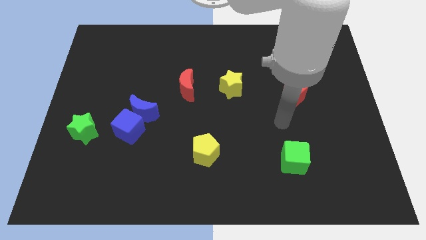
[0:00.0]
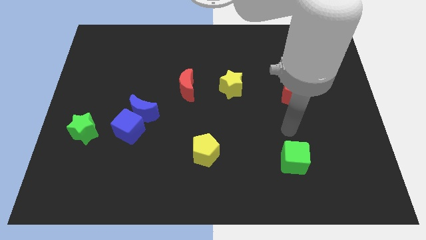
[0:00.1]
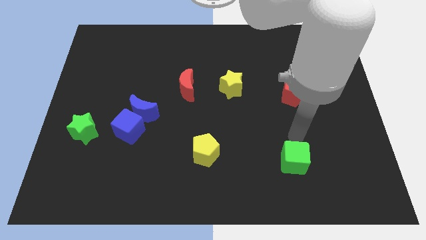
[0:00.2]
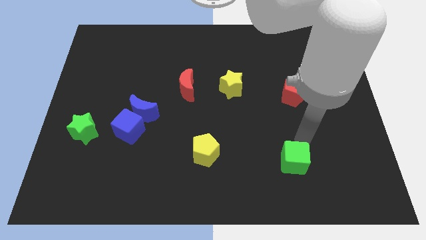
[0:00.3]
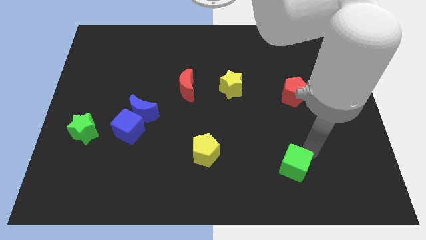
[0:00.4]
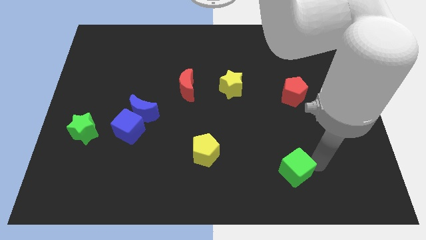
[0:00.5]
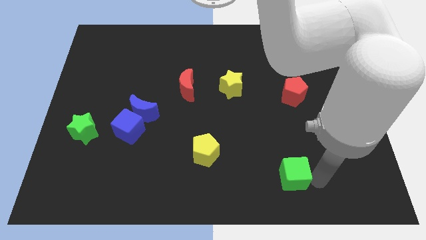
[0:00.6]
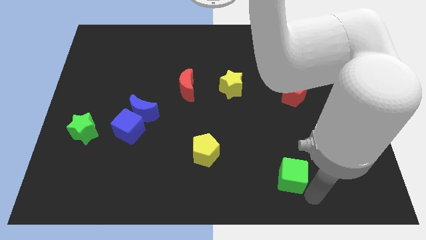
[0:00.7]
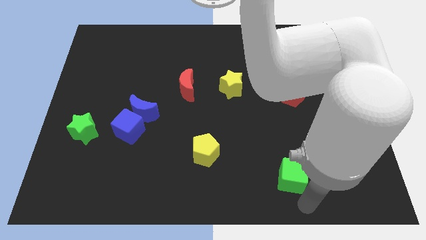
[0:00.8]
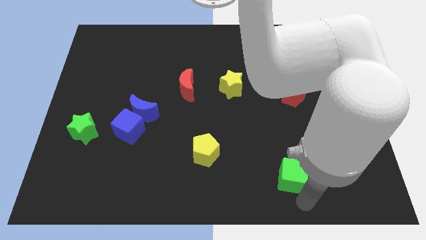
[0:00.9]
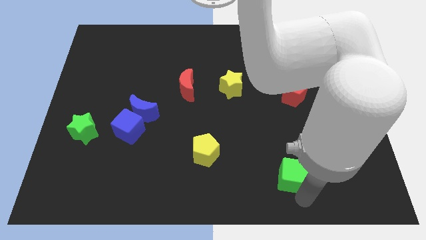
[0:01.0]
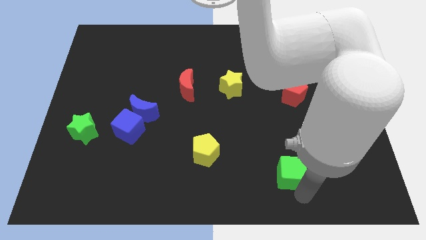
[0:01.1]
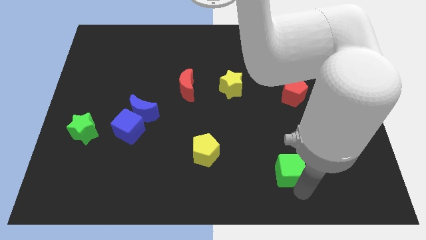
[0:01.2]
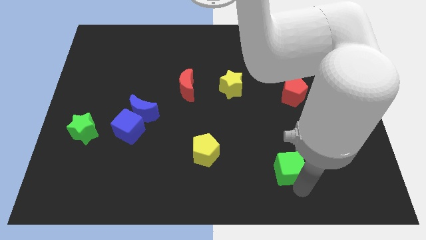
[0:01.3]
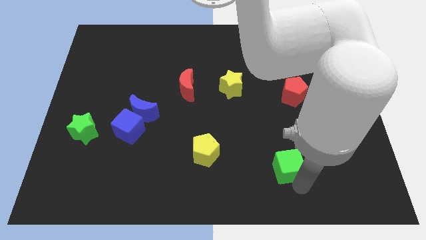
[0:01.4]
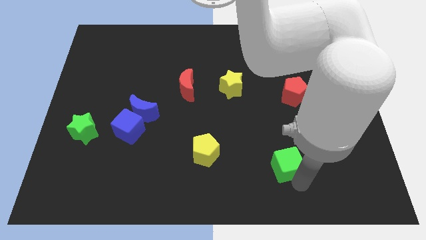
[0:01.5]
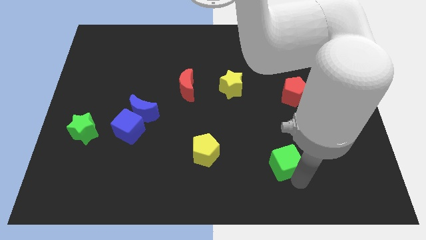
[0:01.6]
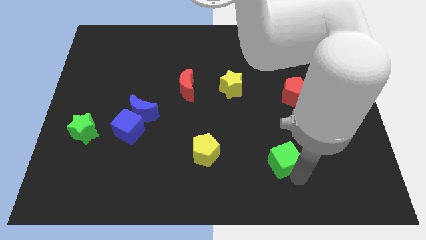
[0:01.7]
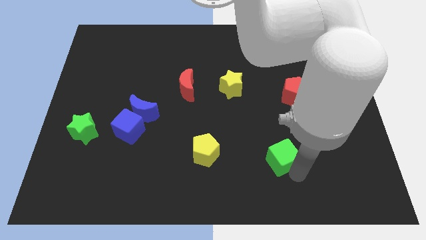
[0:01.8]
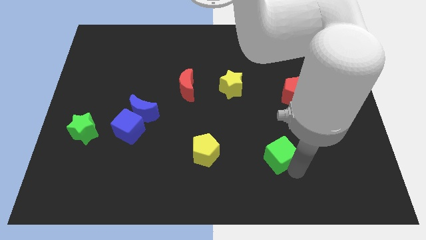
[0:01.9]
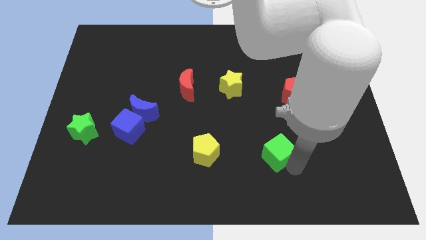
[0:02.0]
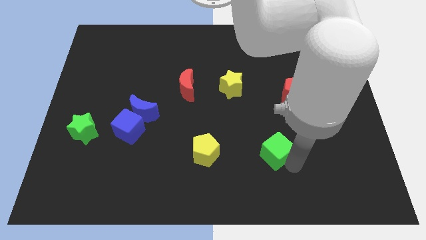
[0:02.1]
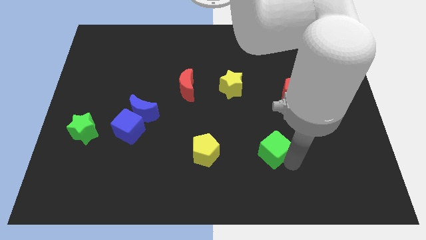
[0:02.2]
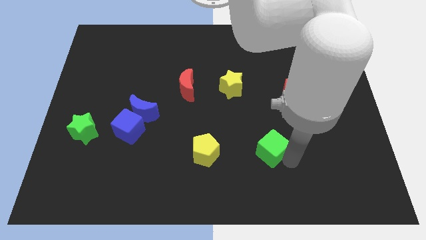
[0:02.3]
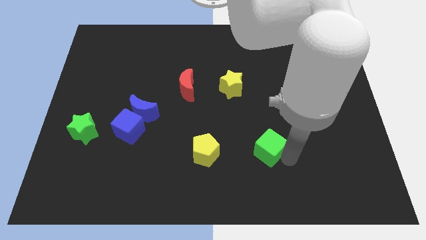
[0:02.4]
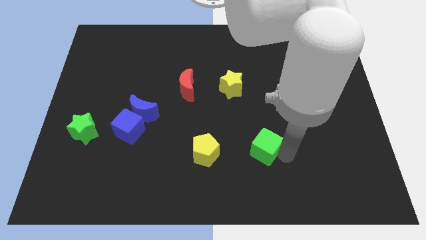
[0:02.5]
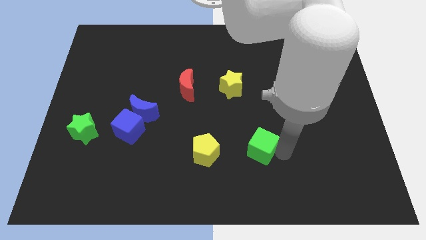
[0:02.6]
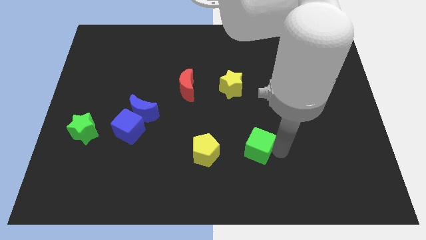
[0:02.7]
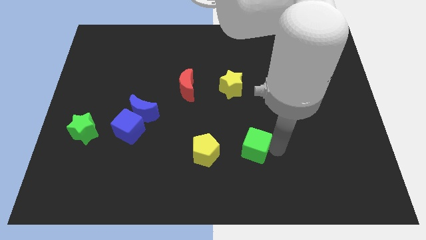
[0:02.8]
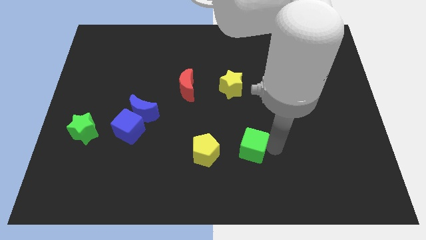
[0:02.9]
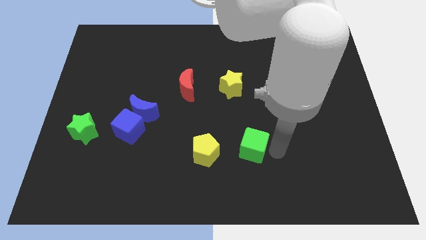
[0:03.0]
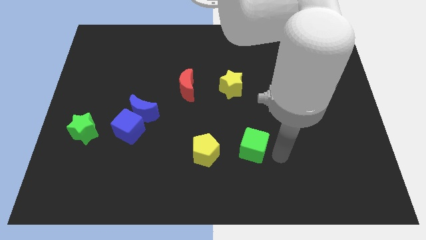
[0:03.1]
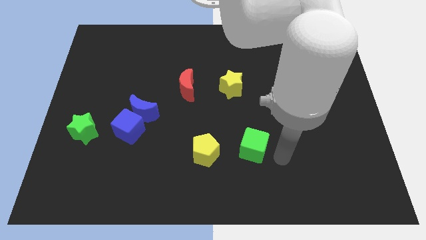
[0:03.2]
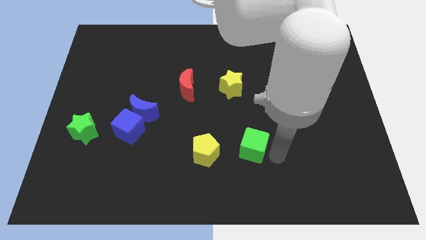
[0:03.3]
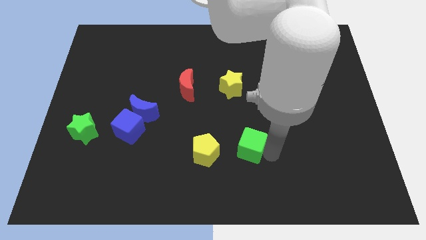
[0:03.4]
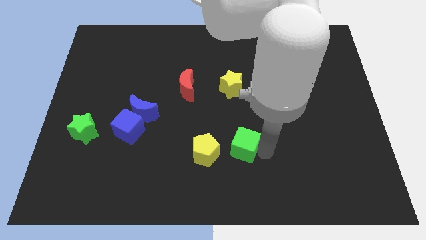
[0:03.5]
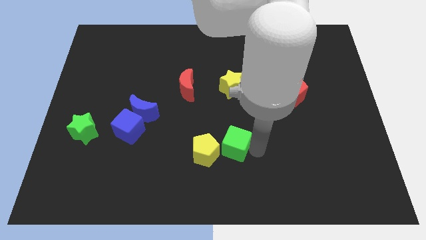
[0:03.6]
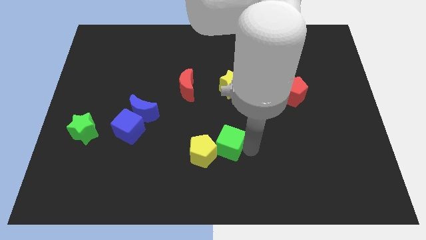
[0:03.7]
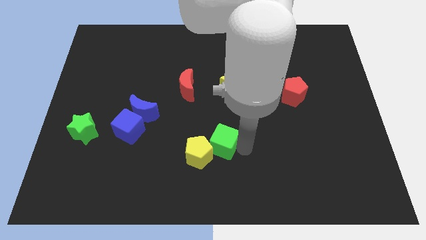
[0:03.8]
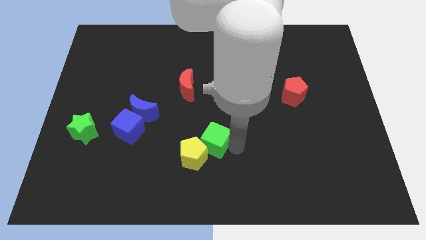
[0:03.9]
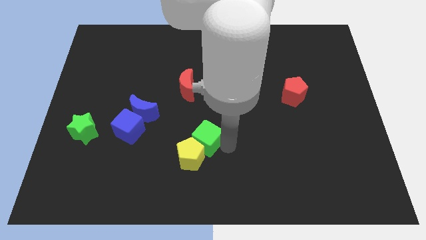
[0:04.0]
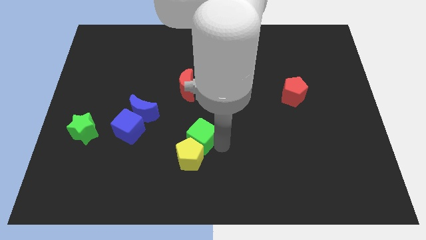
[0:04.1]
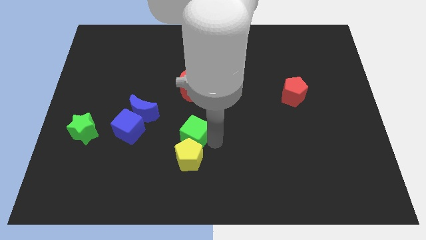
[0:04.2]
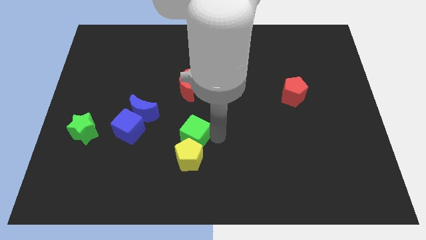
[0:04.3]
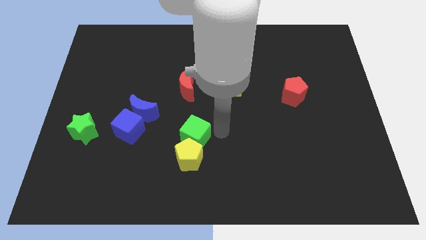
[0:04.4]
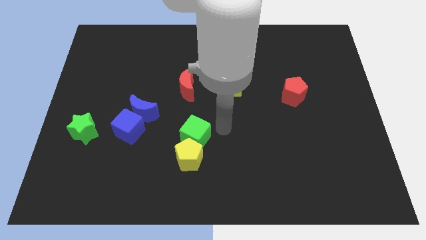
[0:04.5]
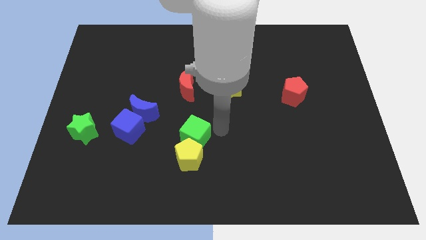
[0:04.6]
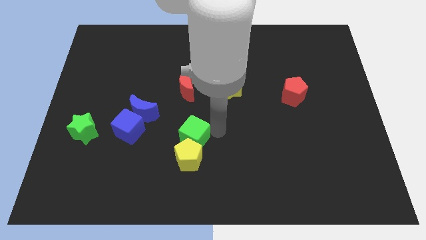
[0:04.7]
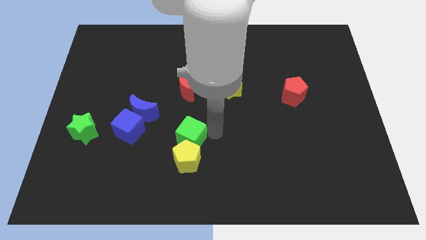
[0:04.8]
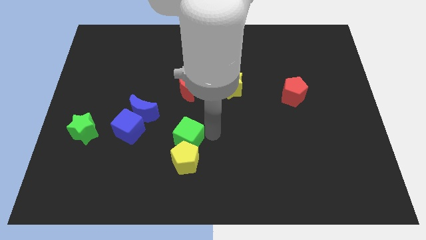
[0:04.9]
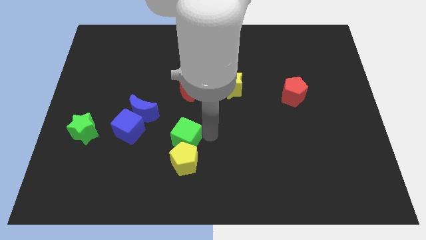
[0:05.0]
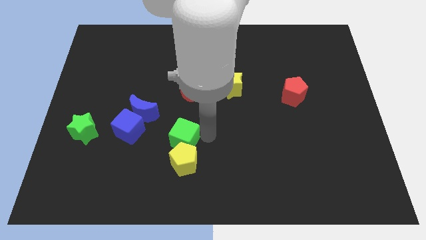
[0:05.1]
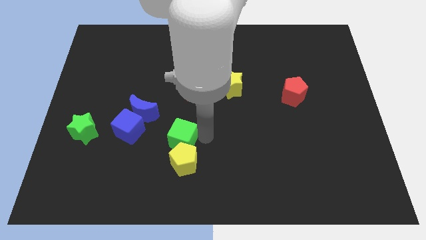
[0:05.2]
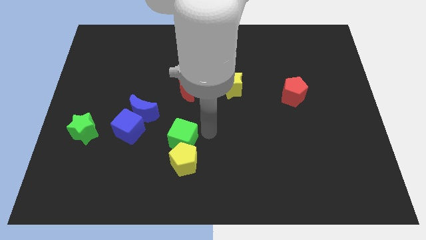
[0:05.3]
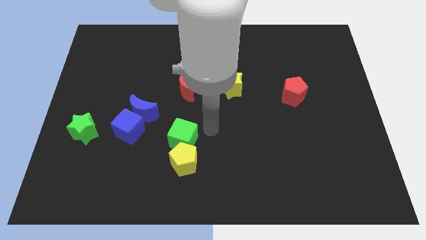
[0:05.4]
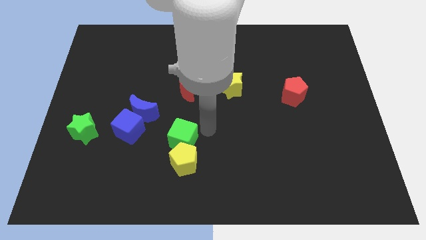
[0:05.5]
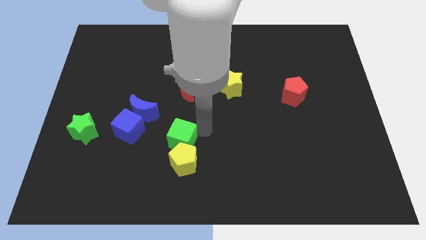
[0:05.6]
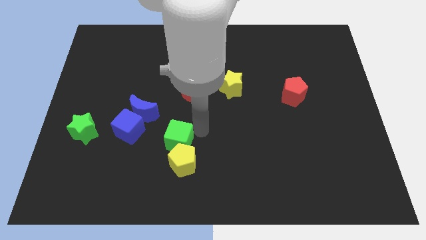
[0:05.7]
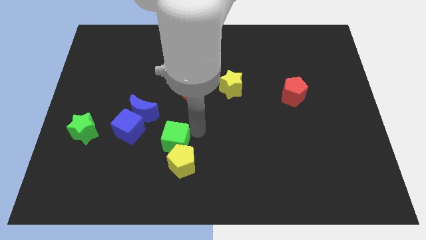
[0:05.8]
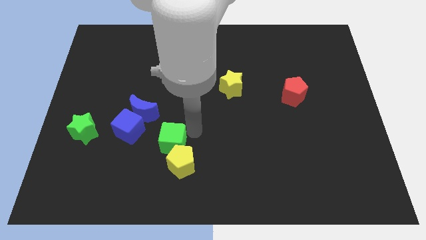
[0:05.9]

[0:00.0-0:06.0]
move the green cube diagonally down and to the right of the blue cube

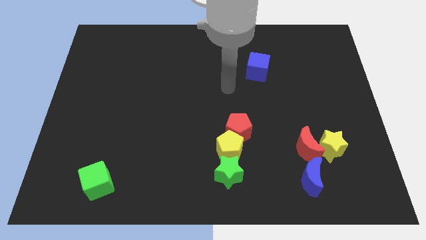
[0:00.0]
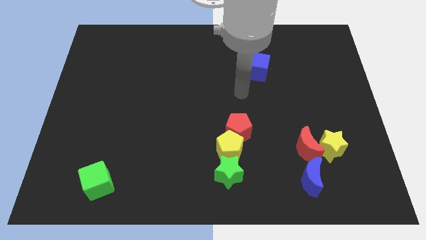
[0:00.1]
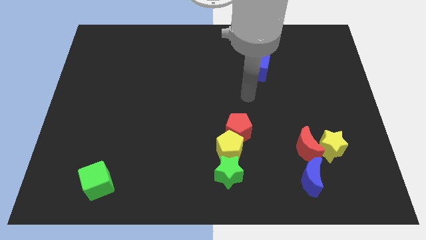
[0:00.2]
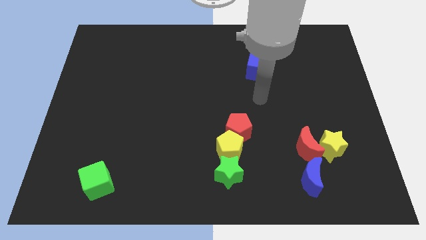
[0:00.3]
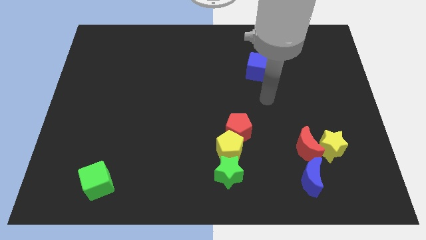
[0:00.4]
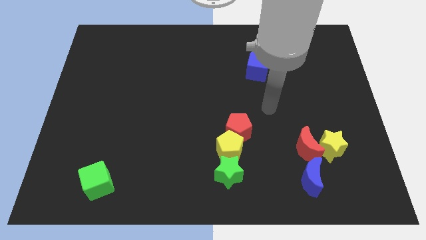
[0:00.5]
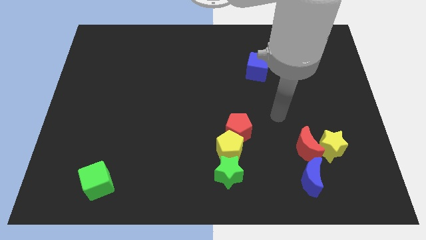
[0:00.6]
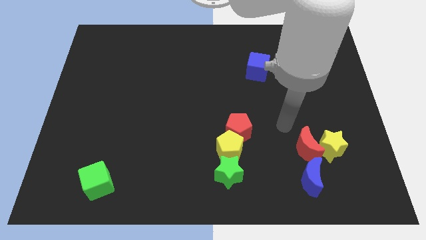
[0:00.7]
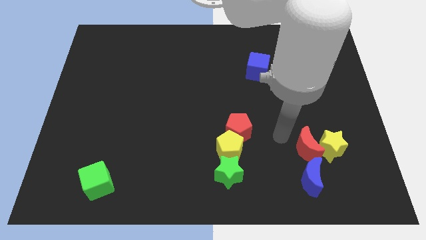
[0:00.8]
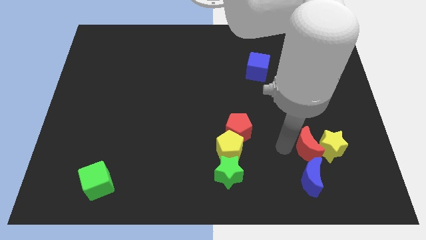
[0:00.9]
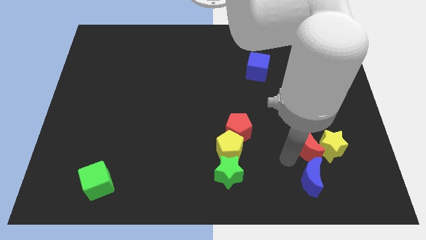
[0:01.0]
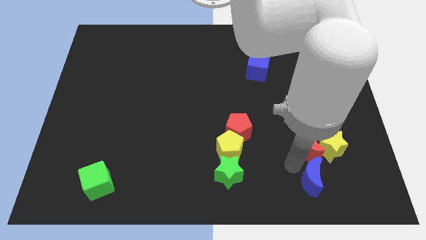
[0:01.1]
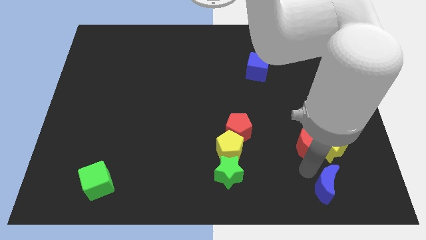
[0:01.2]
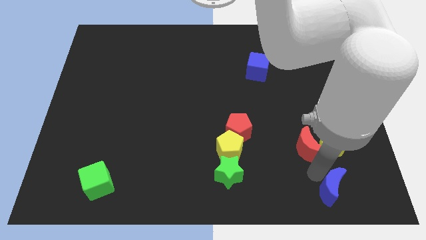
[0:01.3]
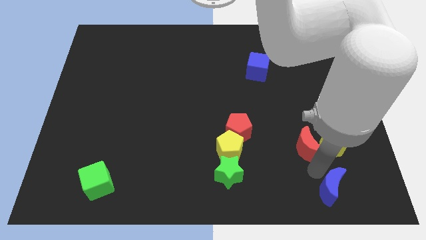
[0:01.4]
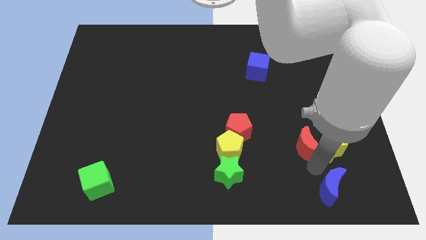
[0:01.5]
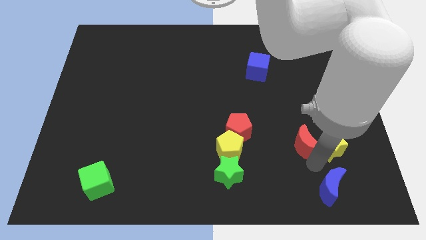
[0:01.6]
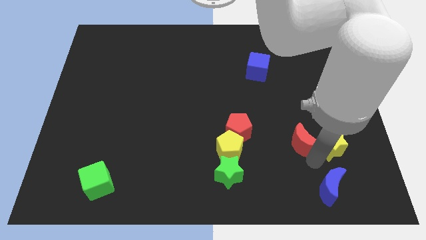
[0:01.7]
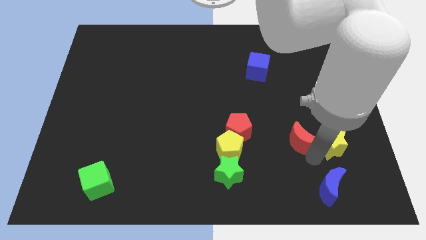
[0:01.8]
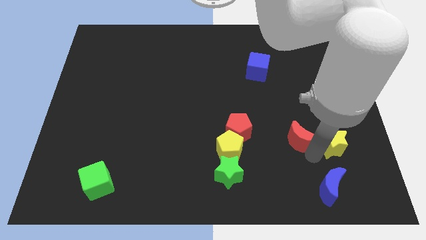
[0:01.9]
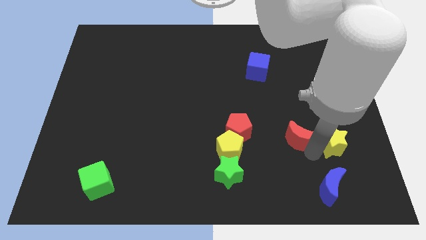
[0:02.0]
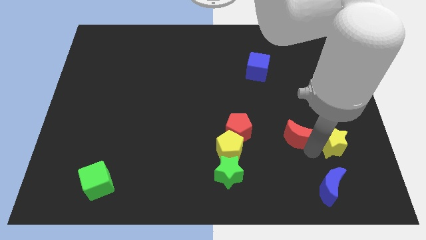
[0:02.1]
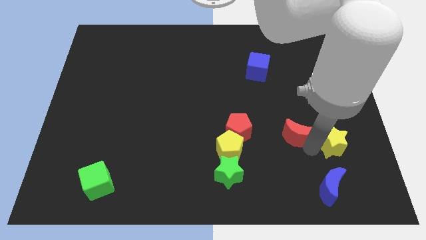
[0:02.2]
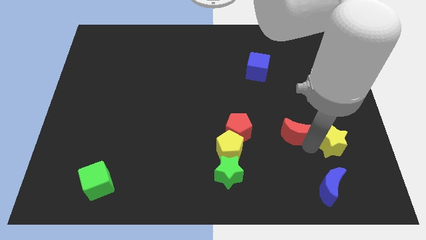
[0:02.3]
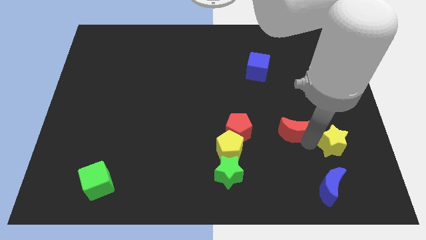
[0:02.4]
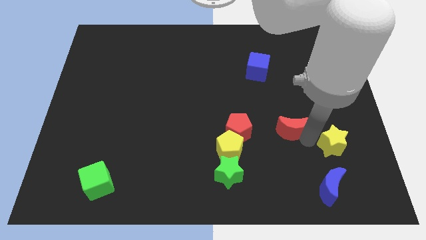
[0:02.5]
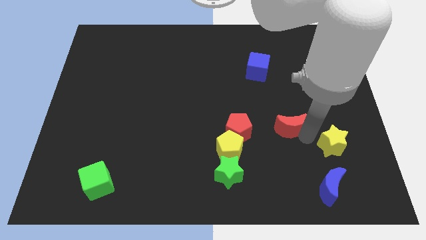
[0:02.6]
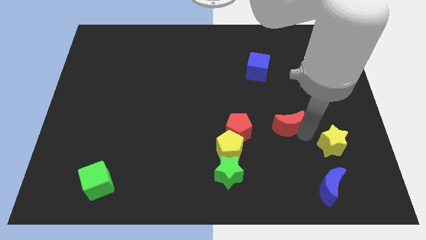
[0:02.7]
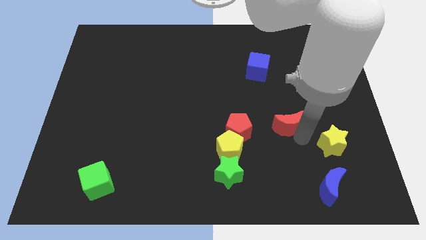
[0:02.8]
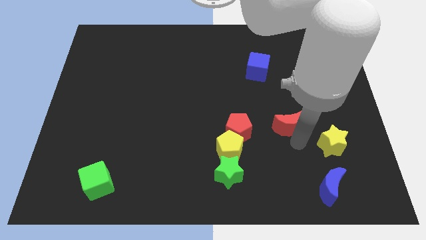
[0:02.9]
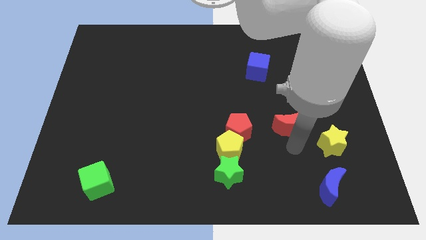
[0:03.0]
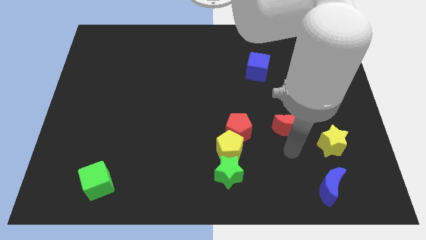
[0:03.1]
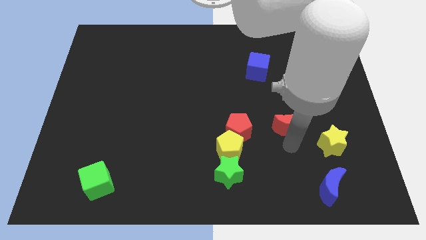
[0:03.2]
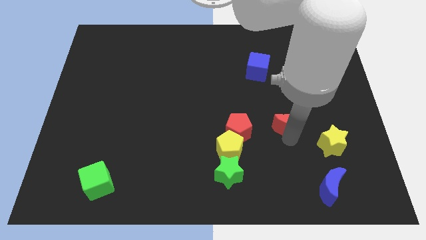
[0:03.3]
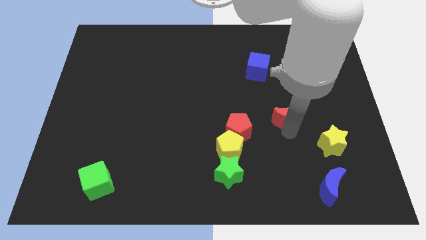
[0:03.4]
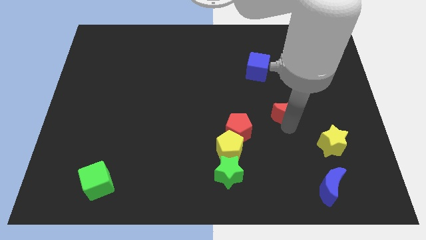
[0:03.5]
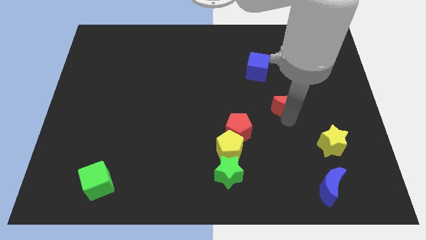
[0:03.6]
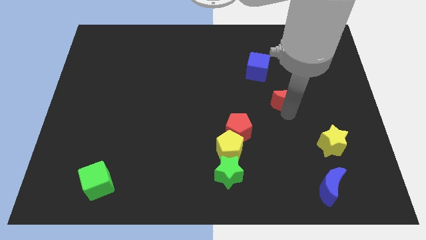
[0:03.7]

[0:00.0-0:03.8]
slide the red moon diagonally down and to the right of the blue cube
